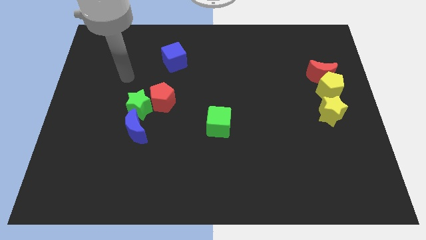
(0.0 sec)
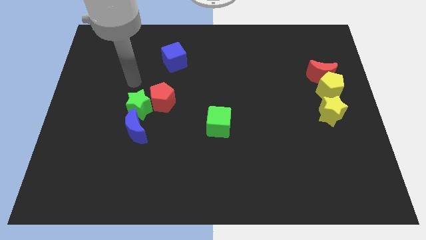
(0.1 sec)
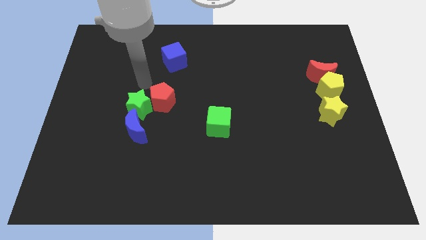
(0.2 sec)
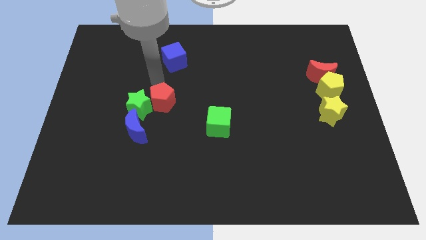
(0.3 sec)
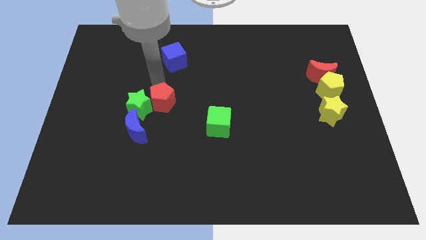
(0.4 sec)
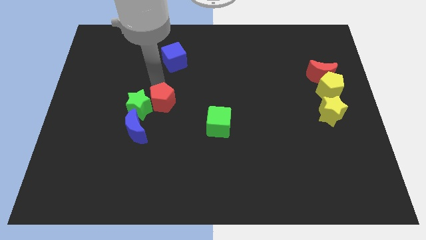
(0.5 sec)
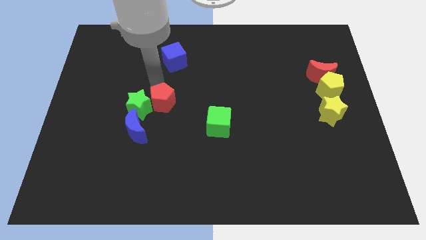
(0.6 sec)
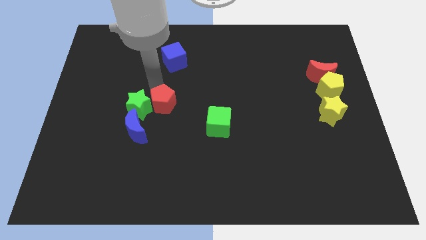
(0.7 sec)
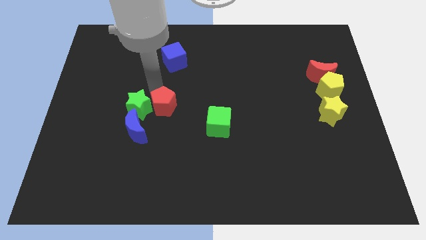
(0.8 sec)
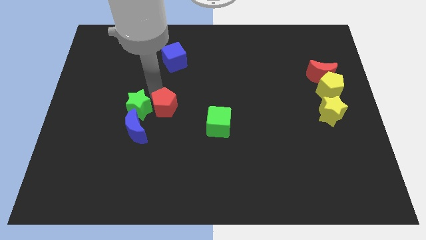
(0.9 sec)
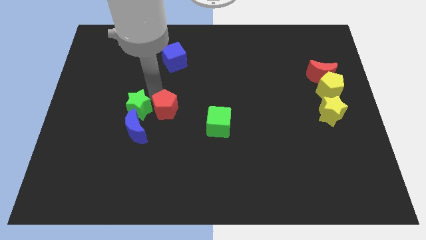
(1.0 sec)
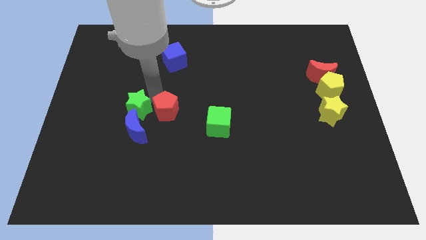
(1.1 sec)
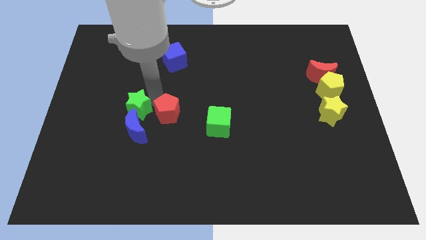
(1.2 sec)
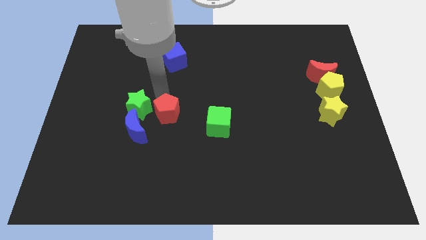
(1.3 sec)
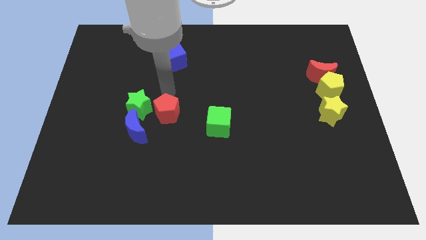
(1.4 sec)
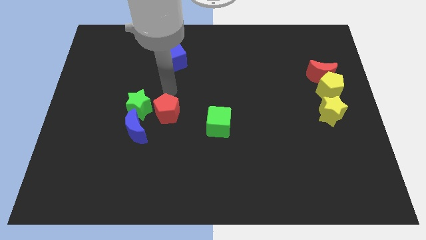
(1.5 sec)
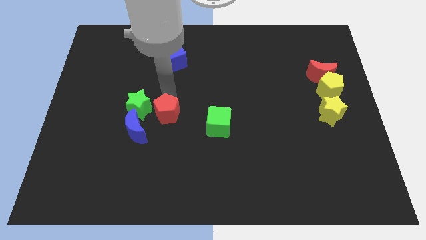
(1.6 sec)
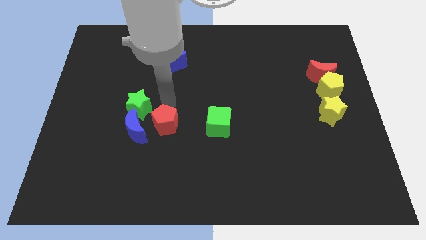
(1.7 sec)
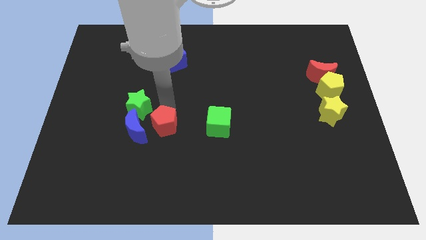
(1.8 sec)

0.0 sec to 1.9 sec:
slide the red pentagon down slightly

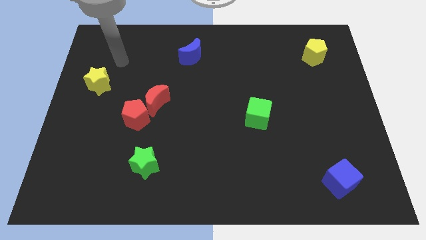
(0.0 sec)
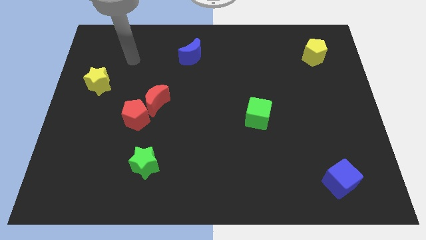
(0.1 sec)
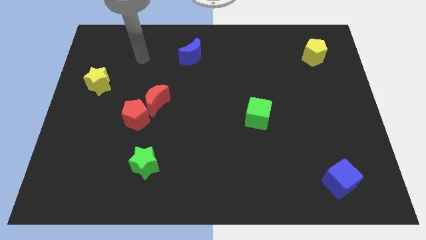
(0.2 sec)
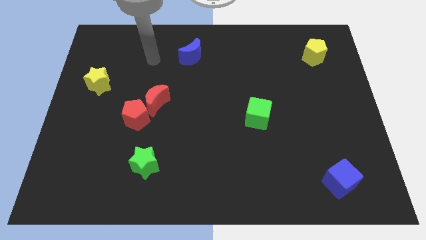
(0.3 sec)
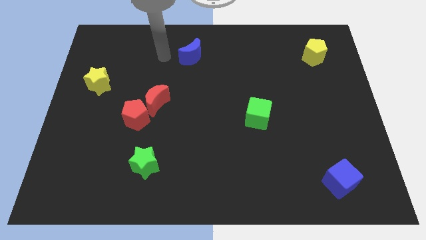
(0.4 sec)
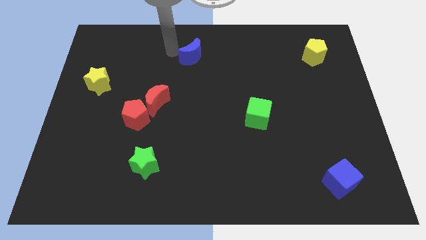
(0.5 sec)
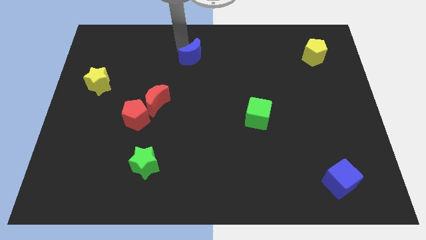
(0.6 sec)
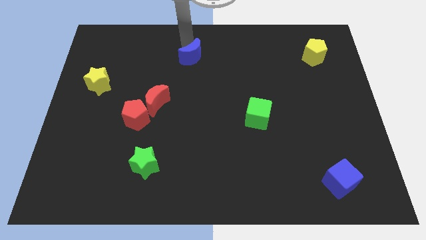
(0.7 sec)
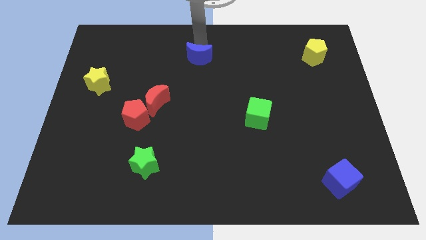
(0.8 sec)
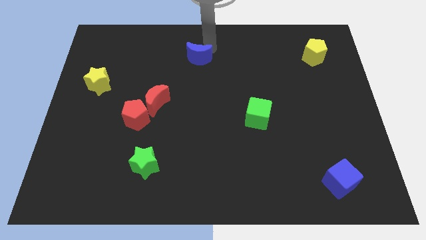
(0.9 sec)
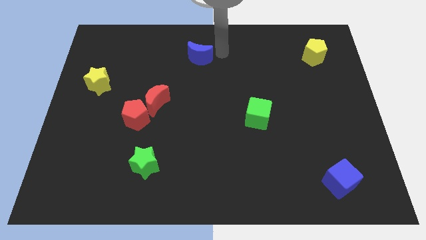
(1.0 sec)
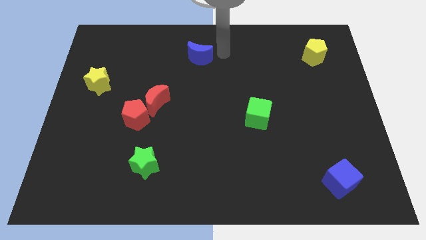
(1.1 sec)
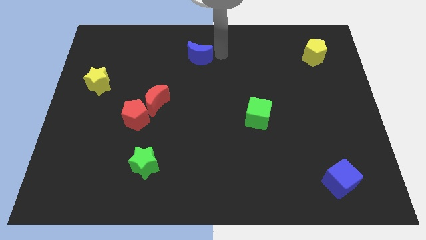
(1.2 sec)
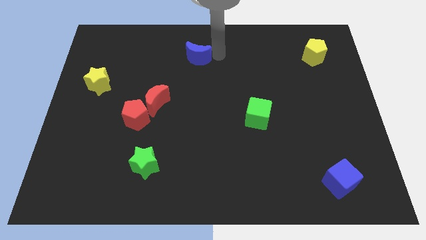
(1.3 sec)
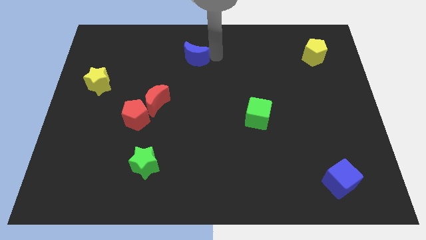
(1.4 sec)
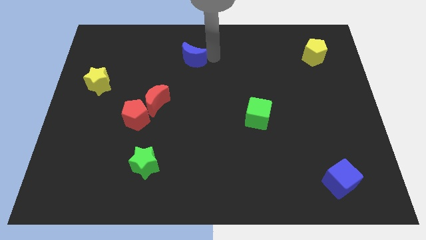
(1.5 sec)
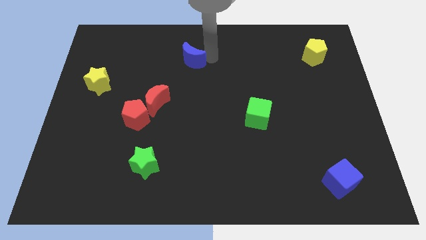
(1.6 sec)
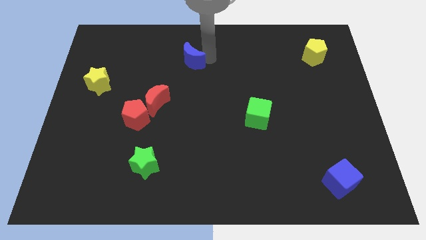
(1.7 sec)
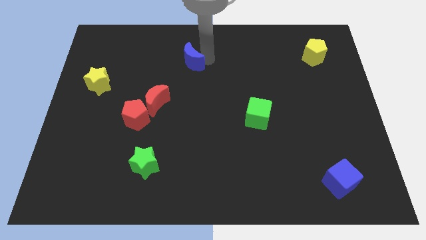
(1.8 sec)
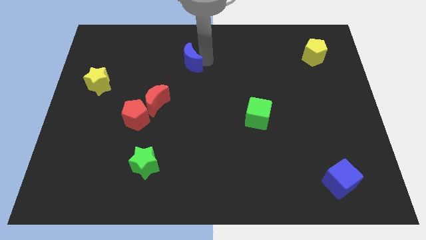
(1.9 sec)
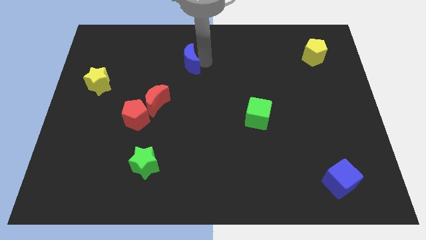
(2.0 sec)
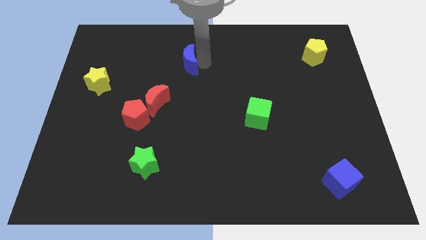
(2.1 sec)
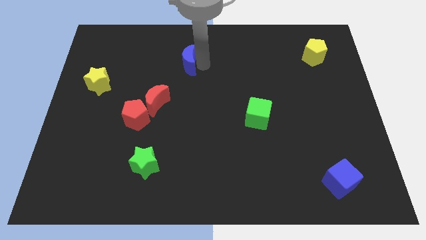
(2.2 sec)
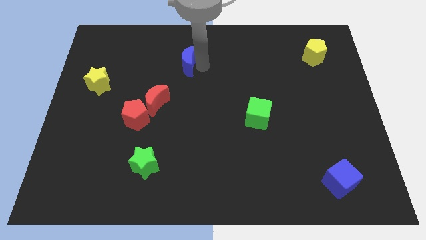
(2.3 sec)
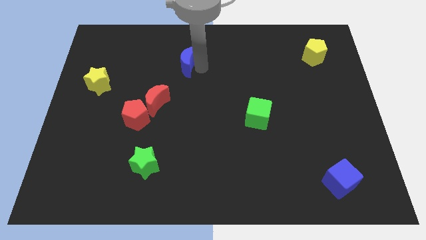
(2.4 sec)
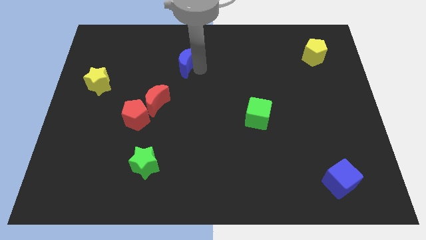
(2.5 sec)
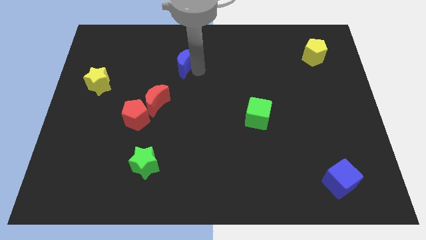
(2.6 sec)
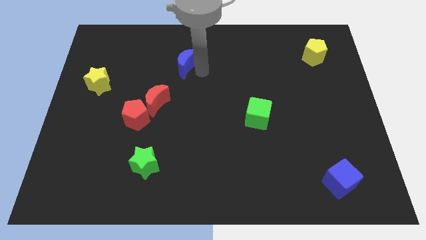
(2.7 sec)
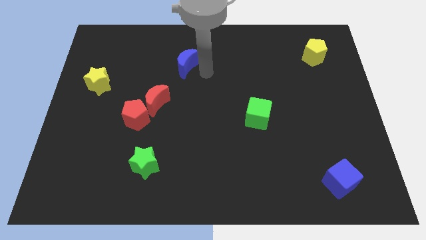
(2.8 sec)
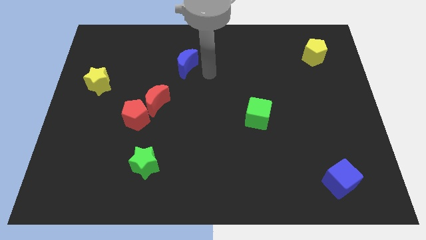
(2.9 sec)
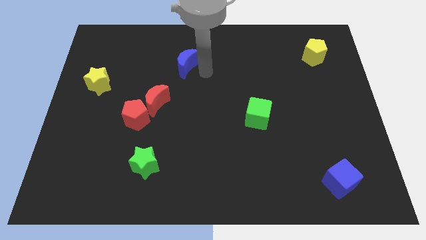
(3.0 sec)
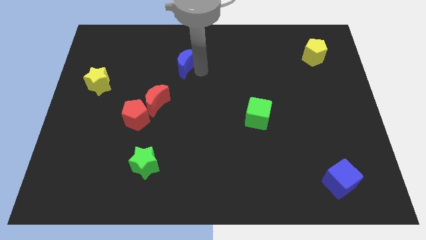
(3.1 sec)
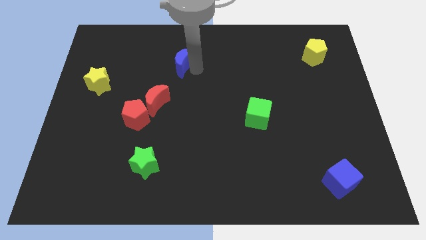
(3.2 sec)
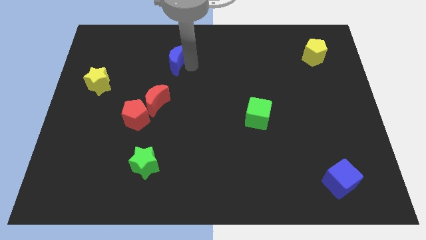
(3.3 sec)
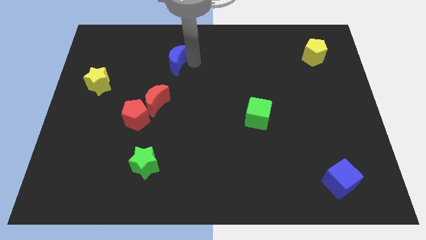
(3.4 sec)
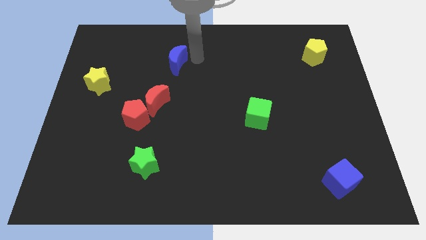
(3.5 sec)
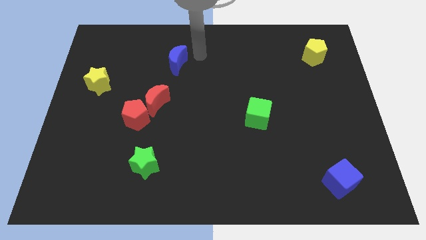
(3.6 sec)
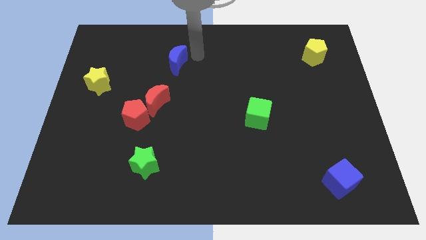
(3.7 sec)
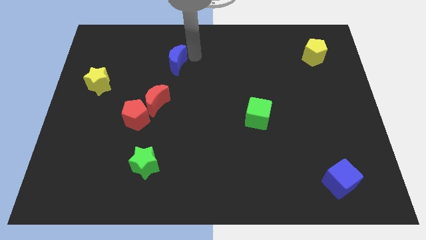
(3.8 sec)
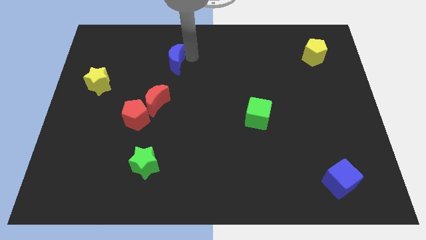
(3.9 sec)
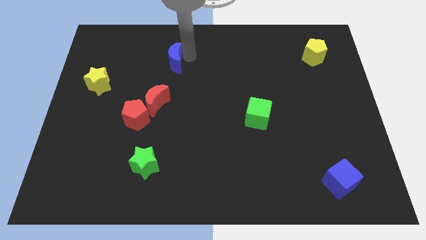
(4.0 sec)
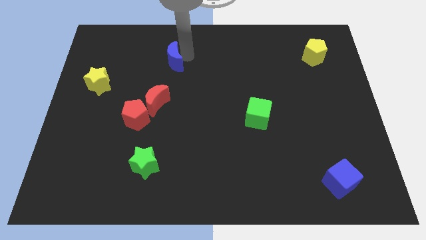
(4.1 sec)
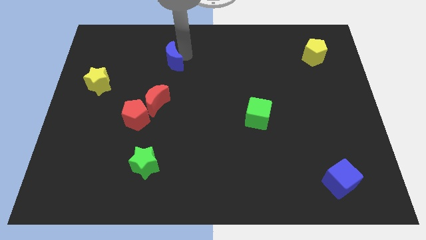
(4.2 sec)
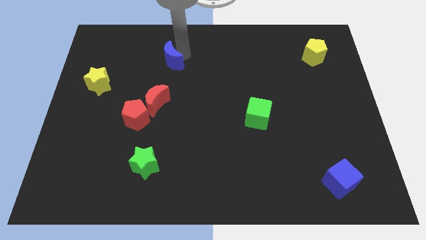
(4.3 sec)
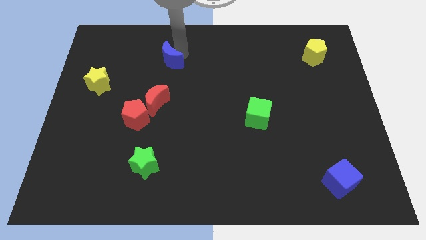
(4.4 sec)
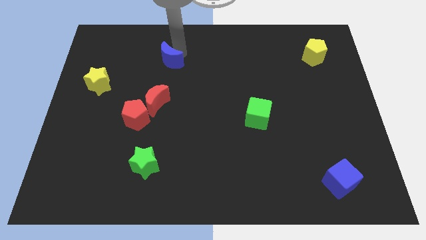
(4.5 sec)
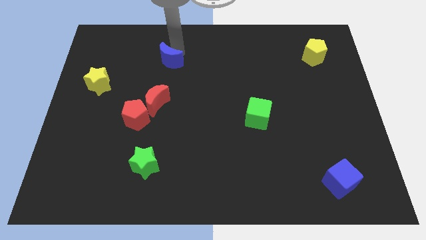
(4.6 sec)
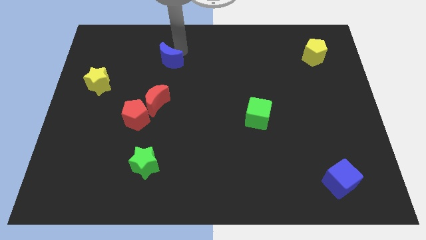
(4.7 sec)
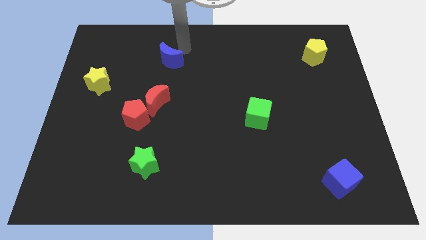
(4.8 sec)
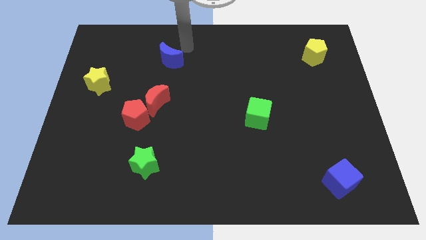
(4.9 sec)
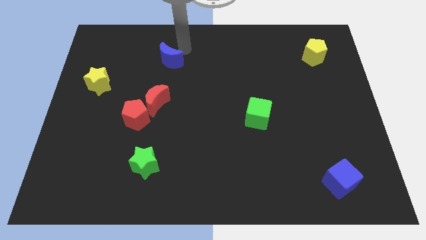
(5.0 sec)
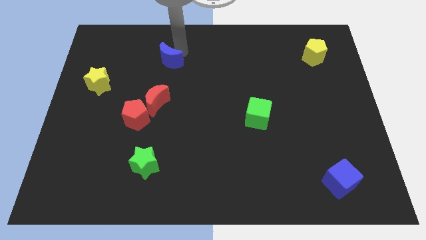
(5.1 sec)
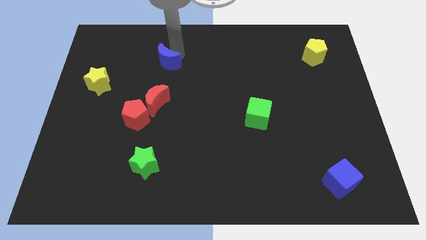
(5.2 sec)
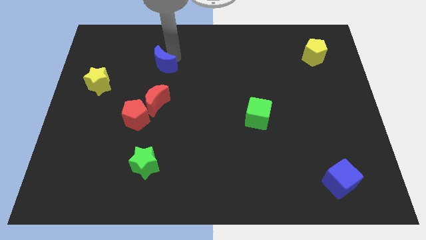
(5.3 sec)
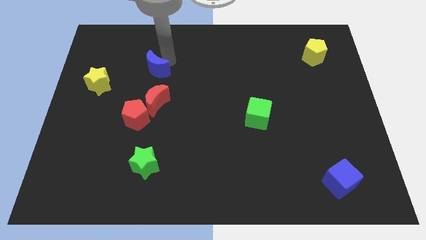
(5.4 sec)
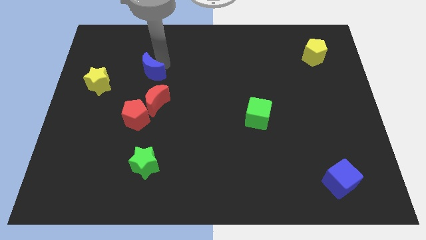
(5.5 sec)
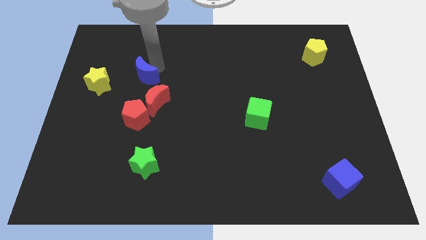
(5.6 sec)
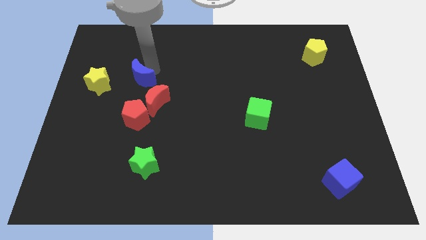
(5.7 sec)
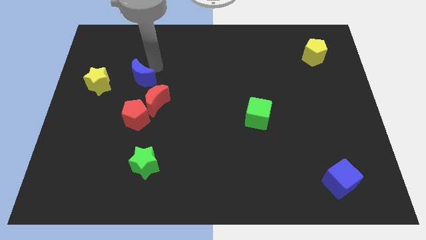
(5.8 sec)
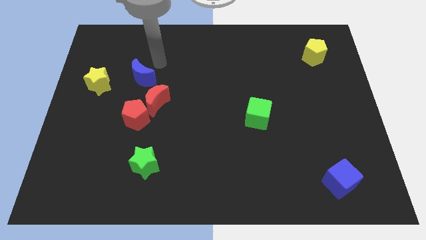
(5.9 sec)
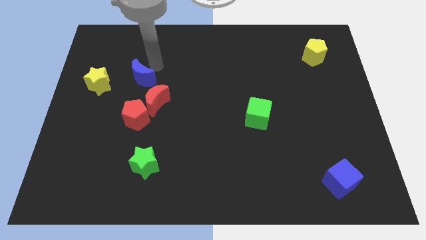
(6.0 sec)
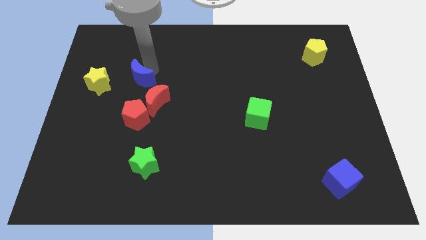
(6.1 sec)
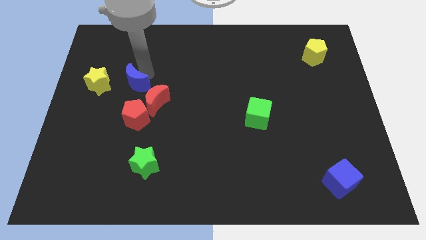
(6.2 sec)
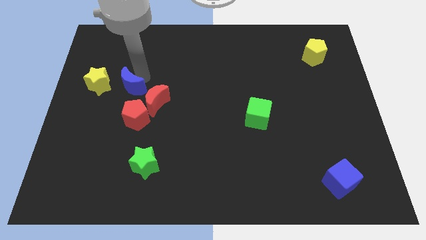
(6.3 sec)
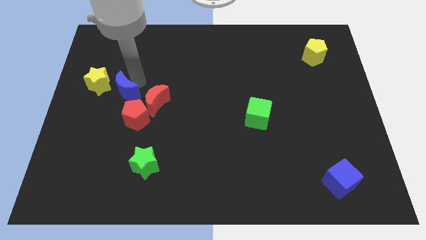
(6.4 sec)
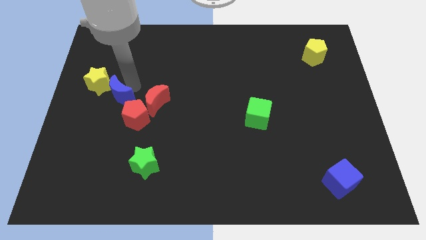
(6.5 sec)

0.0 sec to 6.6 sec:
push the blue moon down and then left
